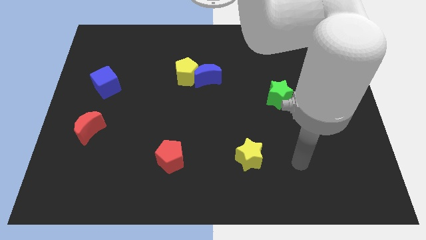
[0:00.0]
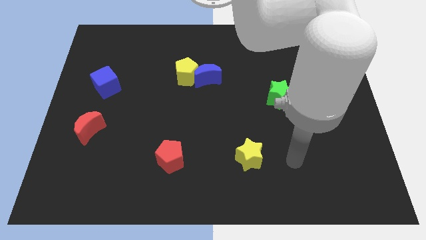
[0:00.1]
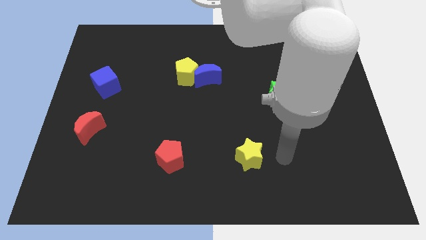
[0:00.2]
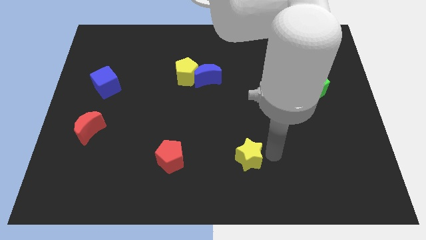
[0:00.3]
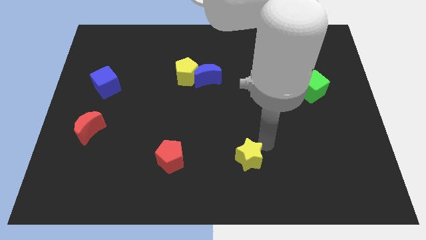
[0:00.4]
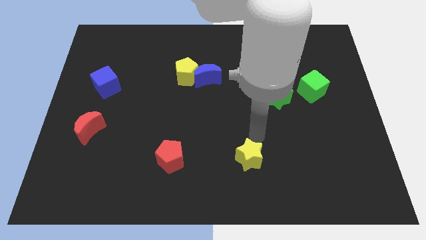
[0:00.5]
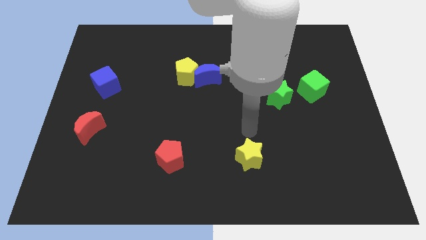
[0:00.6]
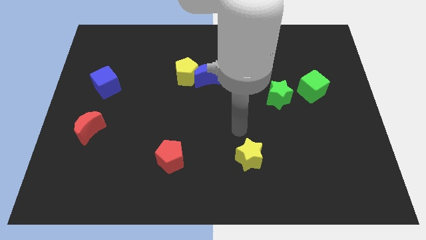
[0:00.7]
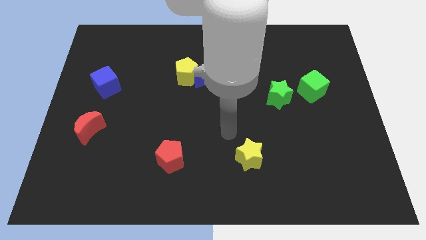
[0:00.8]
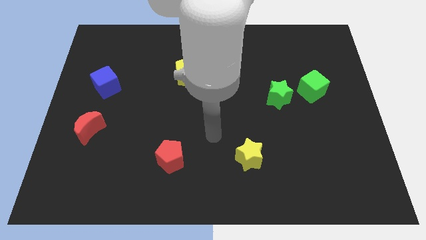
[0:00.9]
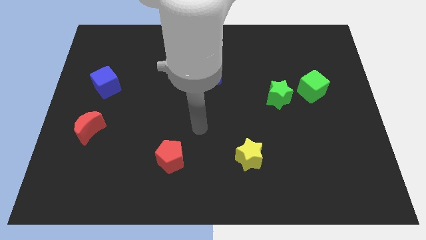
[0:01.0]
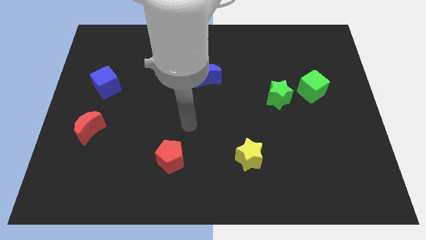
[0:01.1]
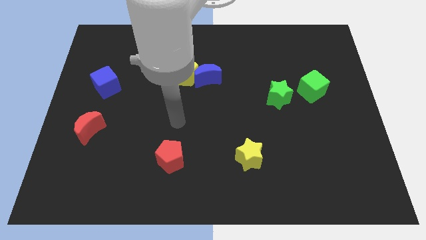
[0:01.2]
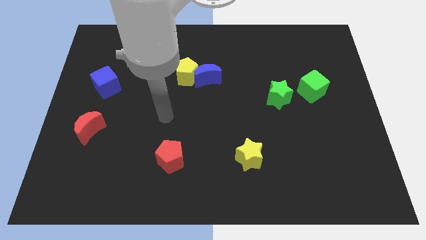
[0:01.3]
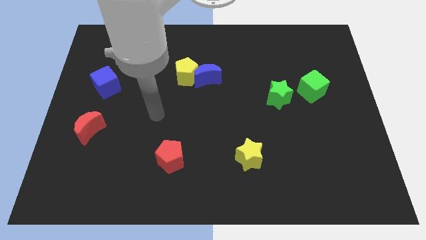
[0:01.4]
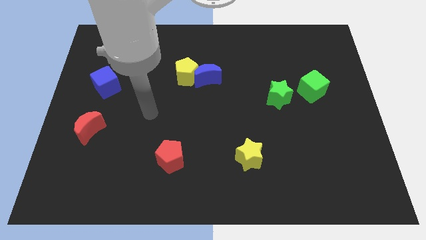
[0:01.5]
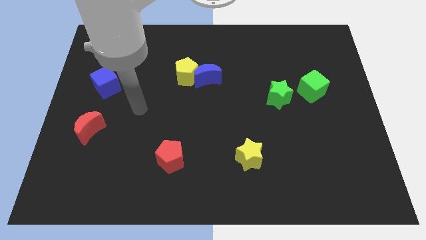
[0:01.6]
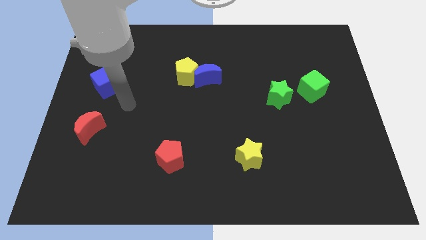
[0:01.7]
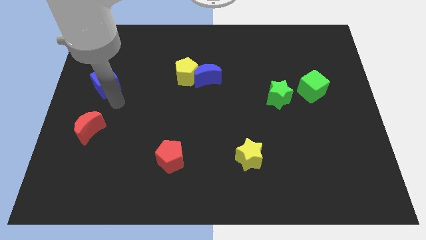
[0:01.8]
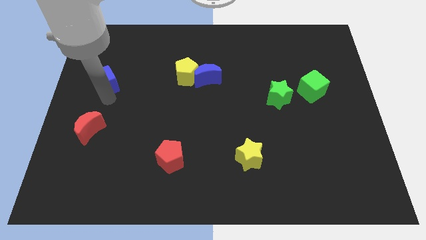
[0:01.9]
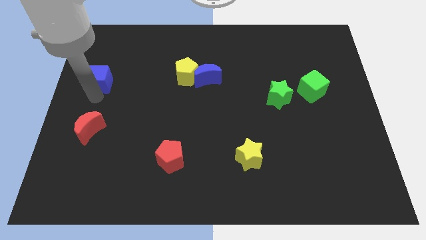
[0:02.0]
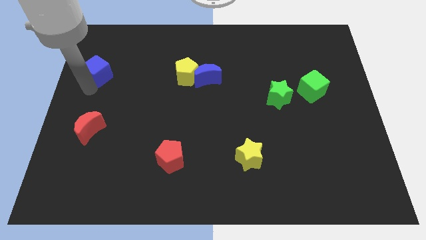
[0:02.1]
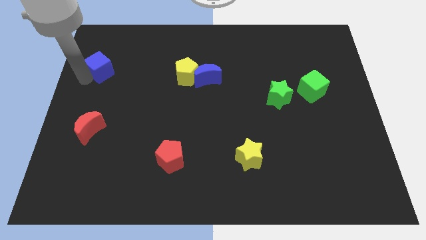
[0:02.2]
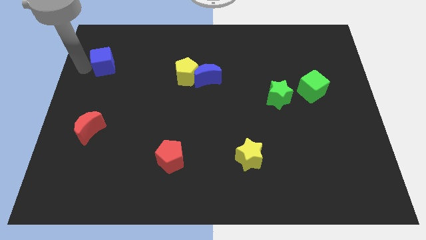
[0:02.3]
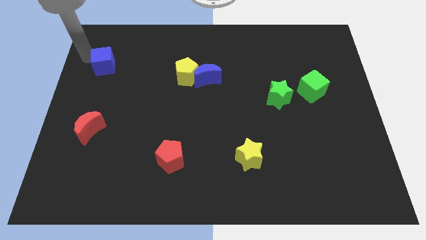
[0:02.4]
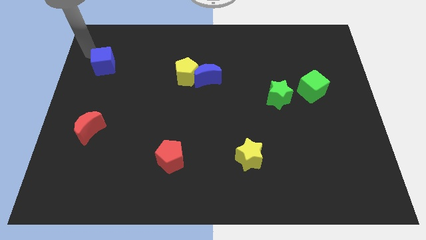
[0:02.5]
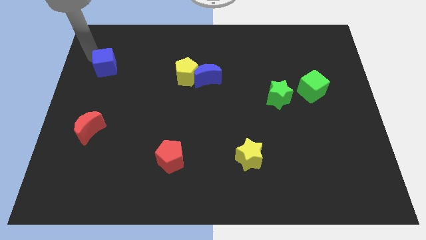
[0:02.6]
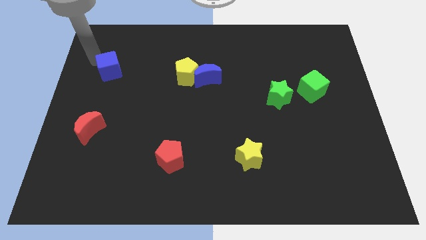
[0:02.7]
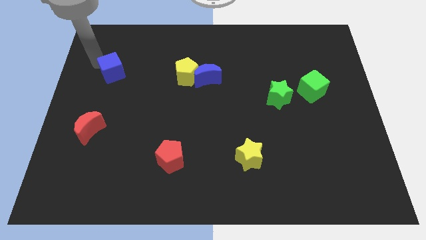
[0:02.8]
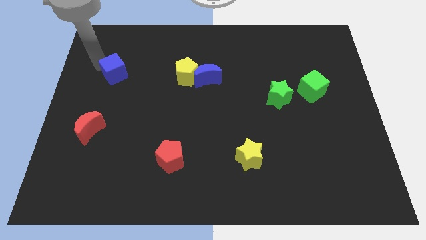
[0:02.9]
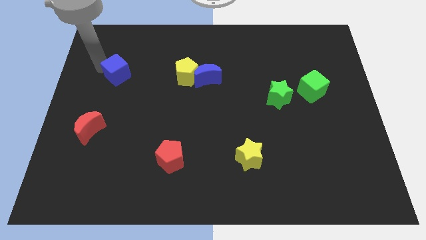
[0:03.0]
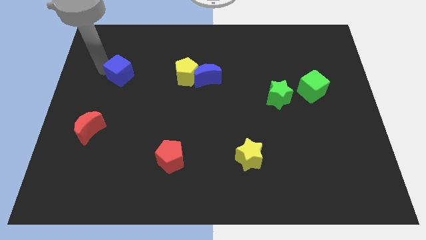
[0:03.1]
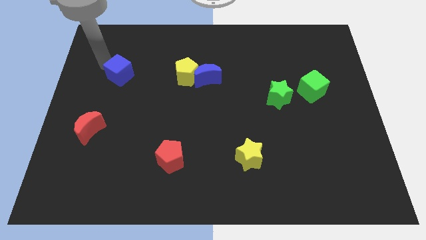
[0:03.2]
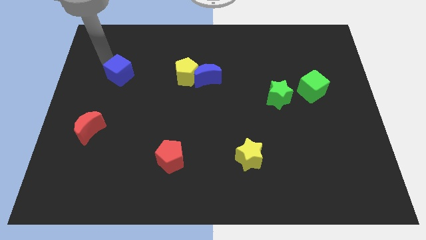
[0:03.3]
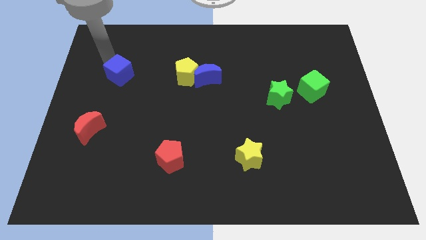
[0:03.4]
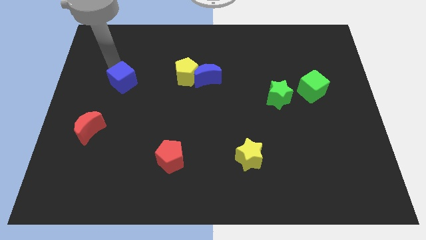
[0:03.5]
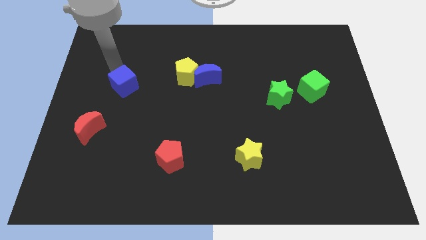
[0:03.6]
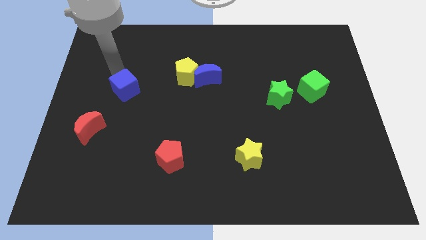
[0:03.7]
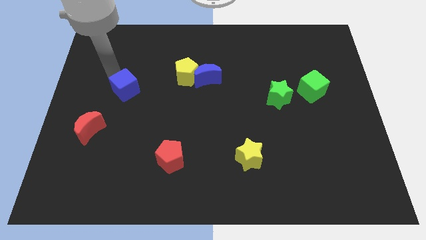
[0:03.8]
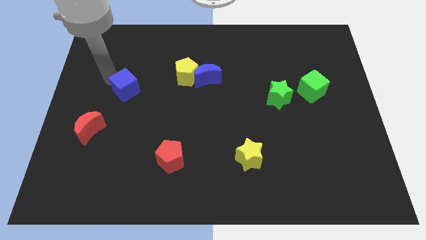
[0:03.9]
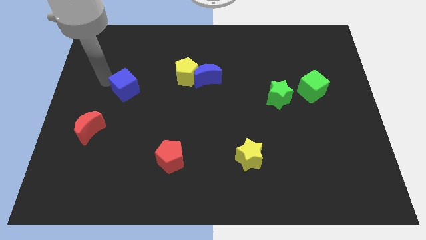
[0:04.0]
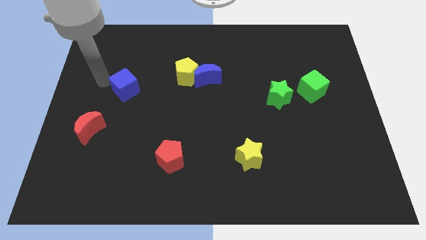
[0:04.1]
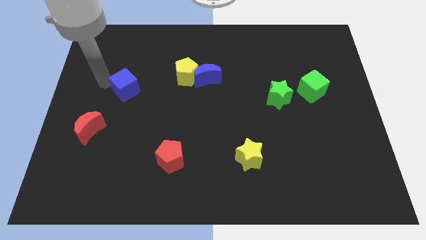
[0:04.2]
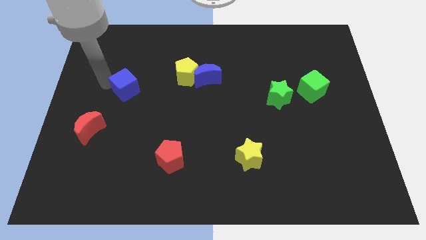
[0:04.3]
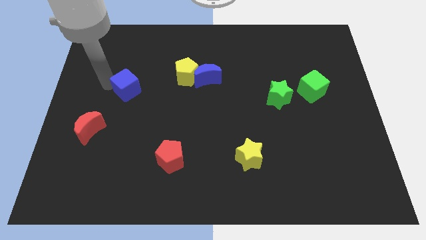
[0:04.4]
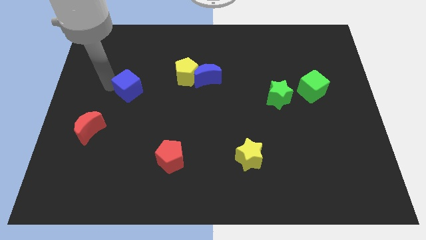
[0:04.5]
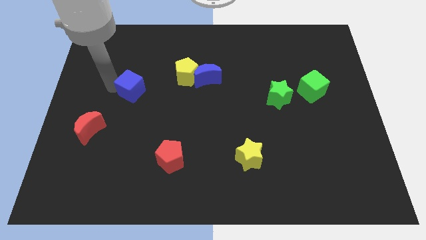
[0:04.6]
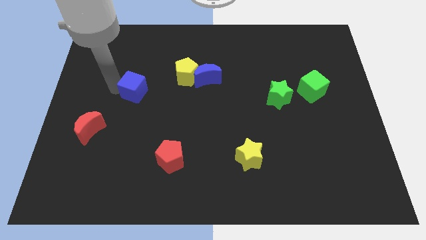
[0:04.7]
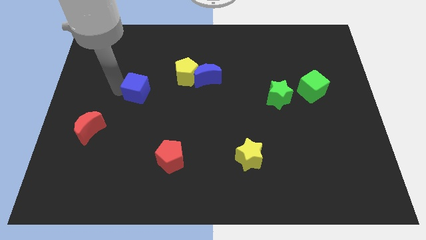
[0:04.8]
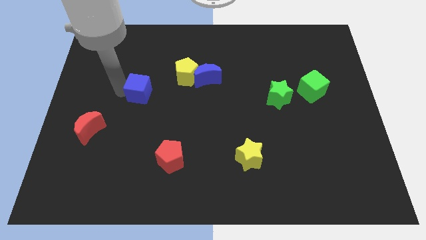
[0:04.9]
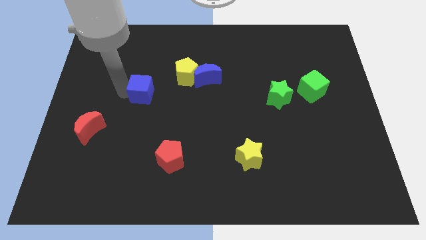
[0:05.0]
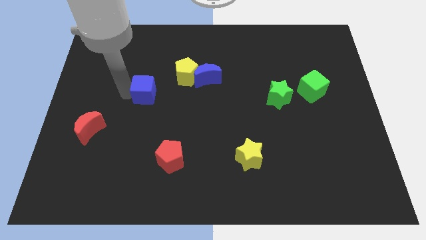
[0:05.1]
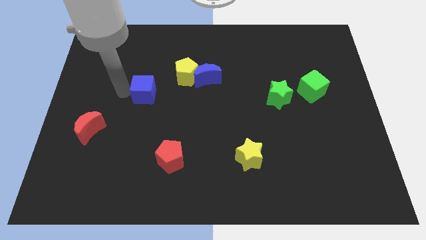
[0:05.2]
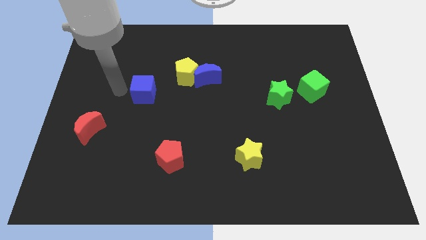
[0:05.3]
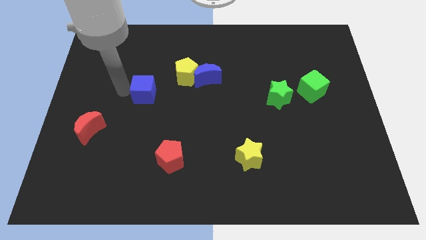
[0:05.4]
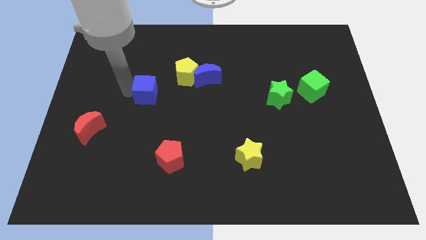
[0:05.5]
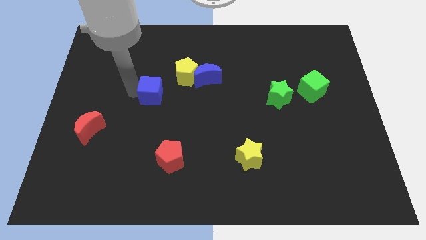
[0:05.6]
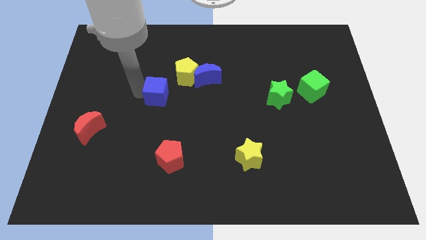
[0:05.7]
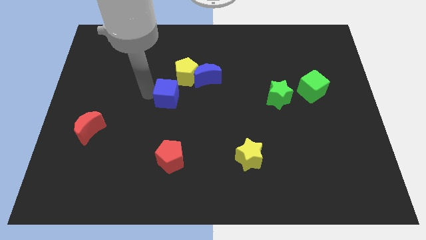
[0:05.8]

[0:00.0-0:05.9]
slide the blue cube to the center of the board

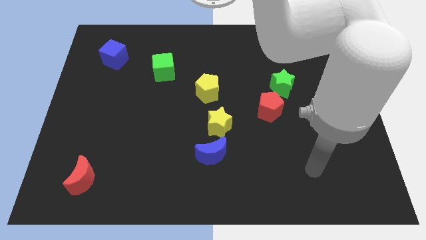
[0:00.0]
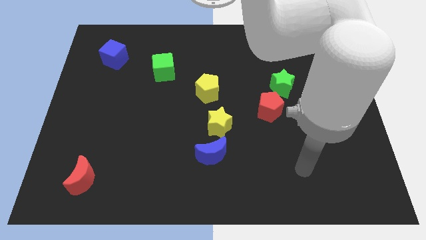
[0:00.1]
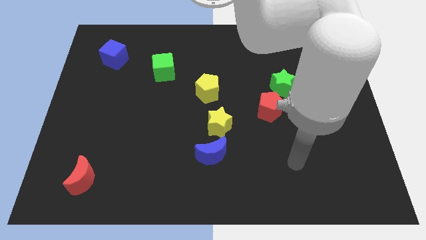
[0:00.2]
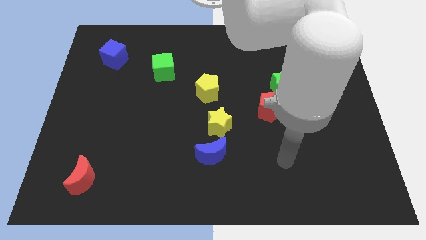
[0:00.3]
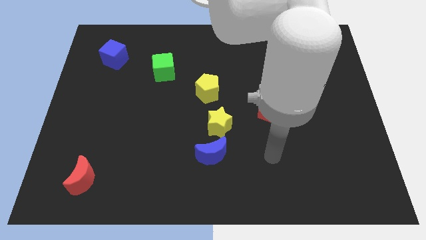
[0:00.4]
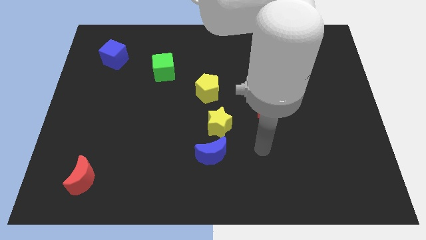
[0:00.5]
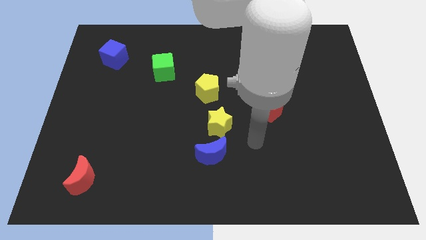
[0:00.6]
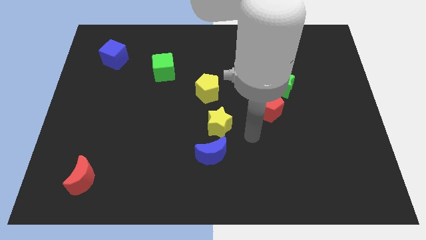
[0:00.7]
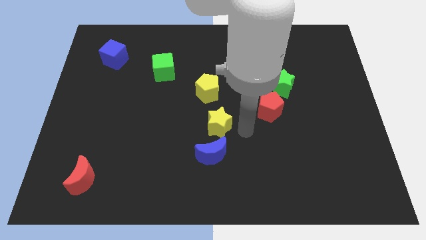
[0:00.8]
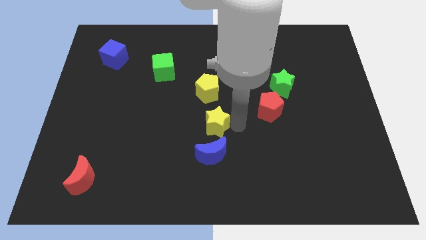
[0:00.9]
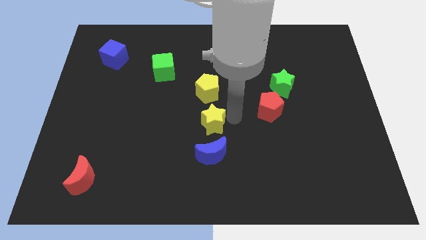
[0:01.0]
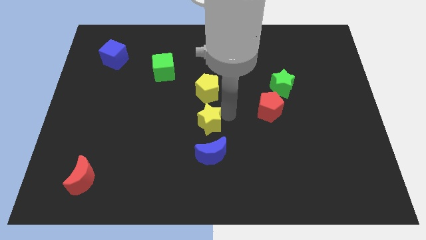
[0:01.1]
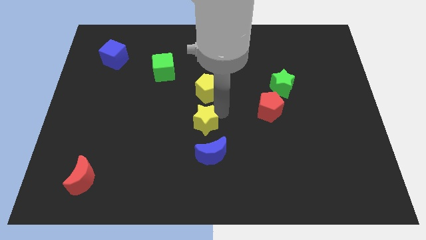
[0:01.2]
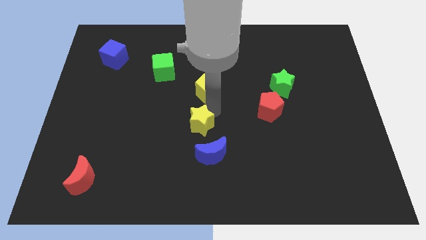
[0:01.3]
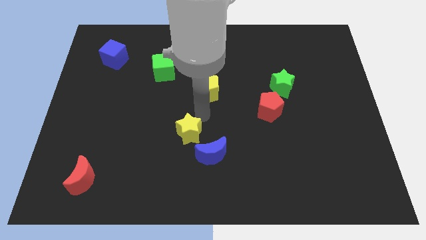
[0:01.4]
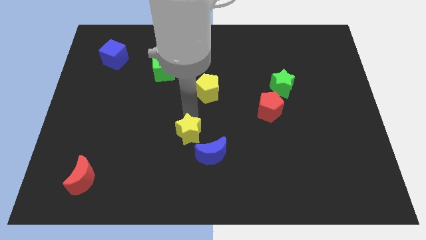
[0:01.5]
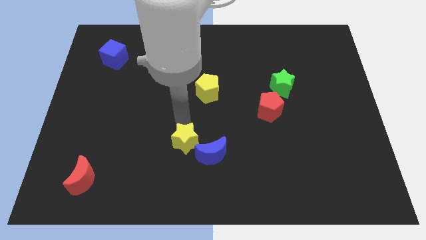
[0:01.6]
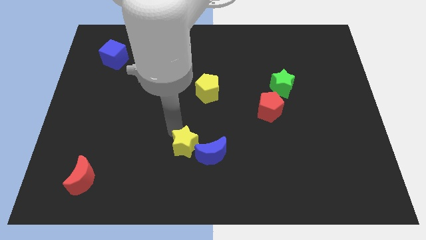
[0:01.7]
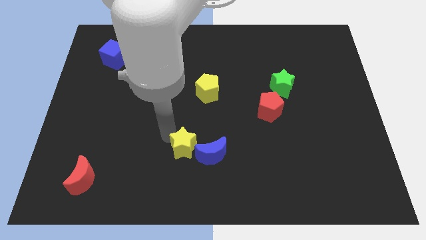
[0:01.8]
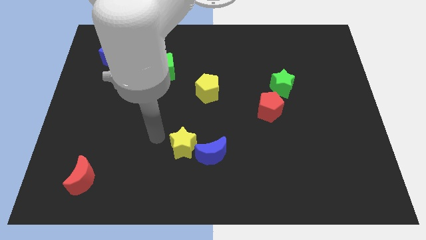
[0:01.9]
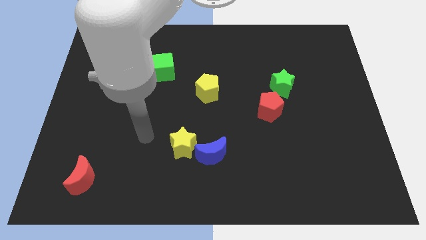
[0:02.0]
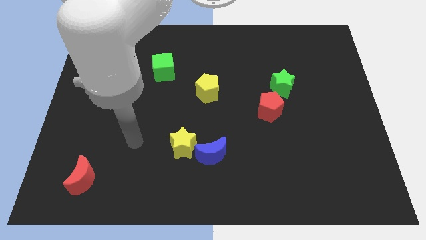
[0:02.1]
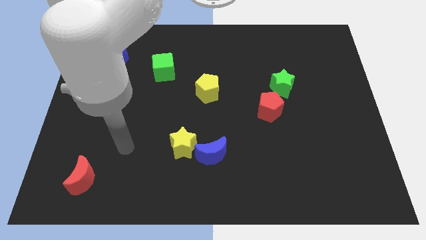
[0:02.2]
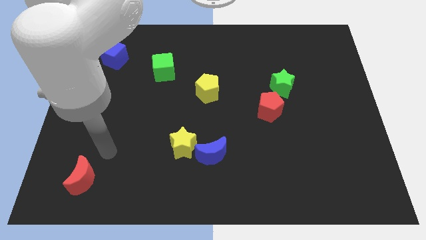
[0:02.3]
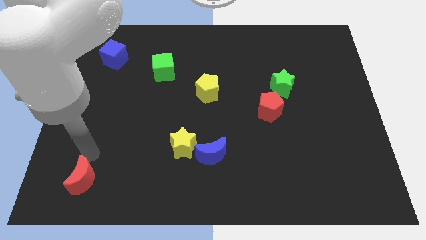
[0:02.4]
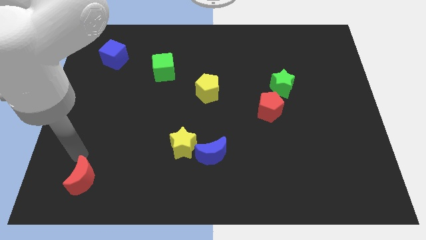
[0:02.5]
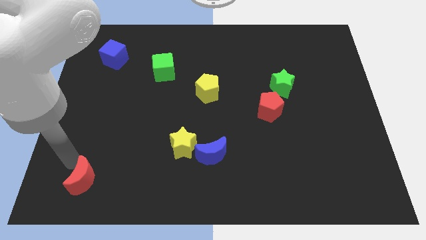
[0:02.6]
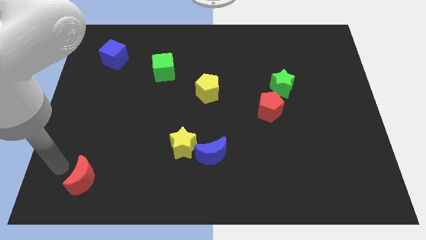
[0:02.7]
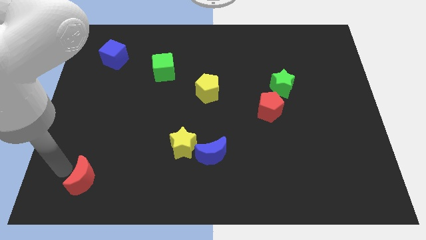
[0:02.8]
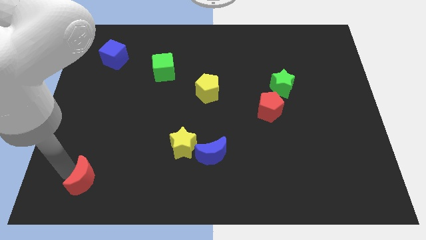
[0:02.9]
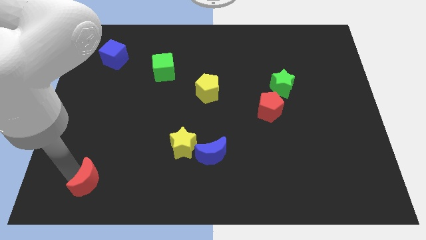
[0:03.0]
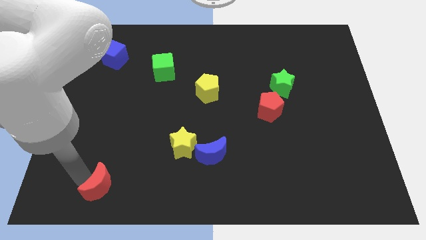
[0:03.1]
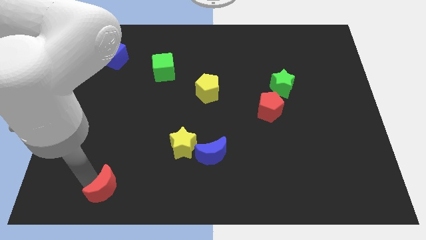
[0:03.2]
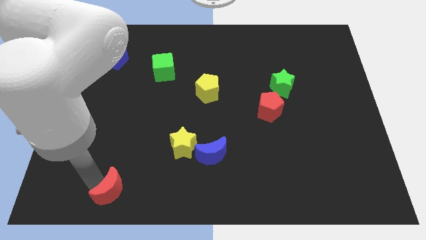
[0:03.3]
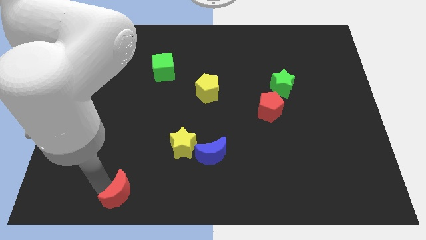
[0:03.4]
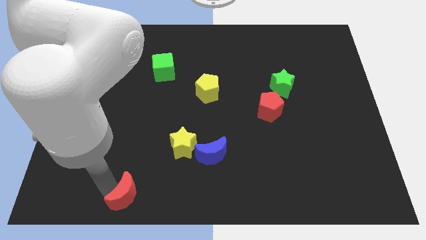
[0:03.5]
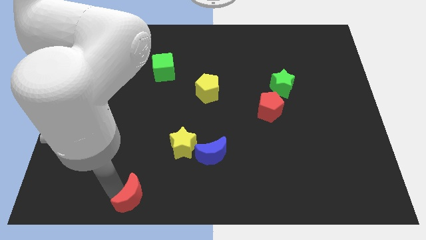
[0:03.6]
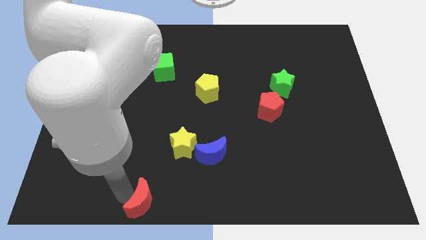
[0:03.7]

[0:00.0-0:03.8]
put the red moon to the bottom side
